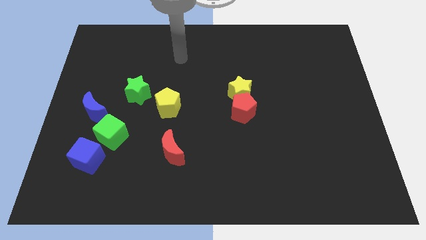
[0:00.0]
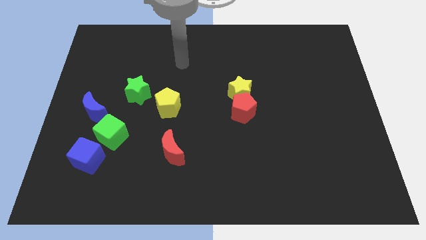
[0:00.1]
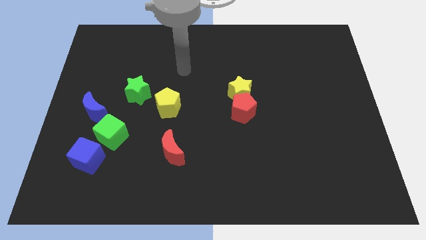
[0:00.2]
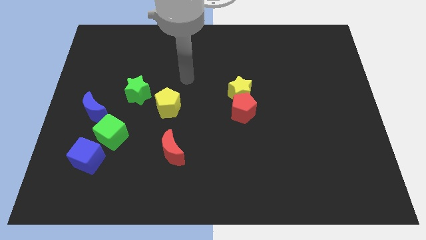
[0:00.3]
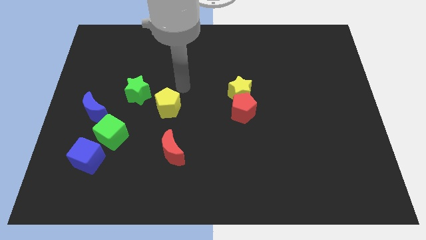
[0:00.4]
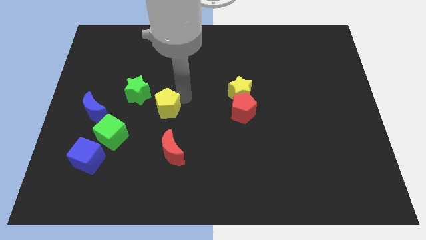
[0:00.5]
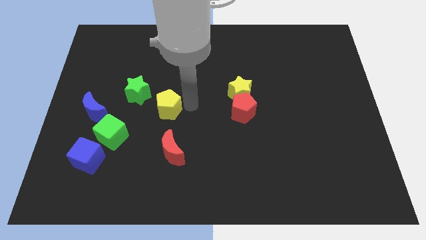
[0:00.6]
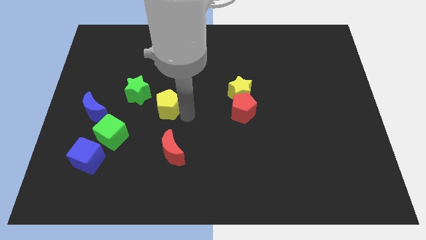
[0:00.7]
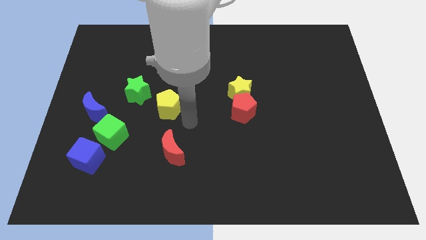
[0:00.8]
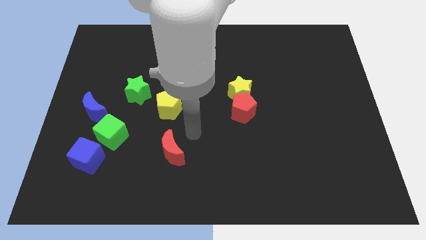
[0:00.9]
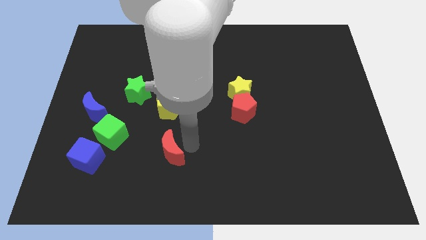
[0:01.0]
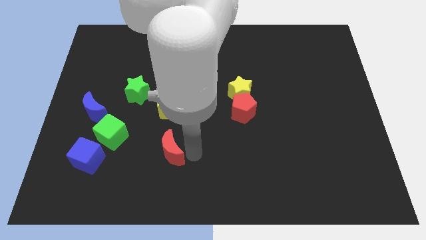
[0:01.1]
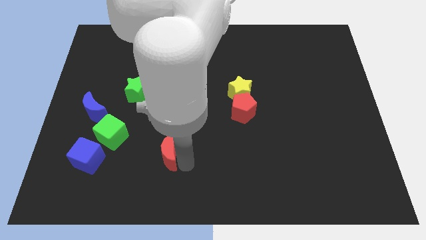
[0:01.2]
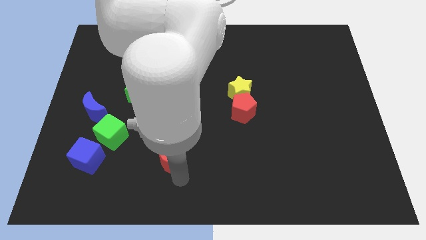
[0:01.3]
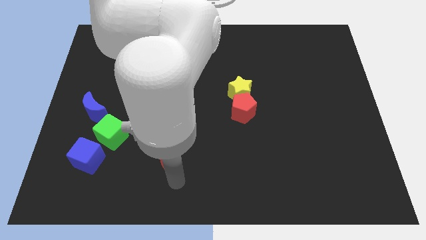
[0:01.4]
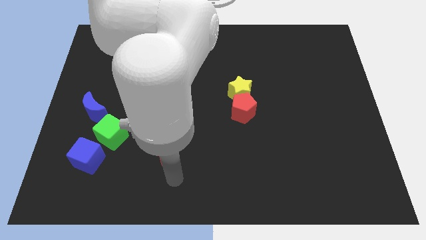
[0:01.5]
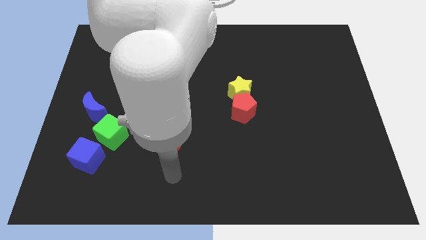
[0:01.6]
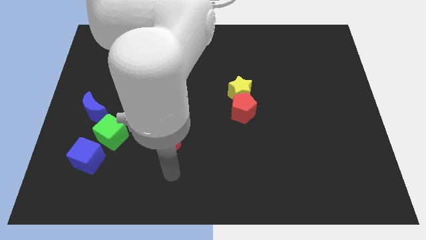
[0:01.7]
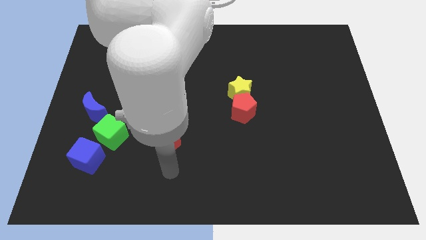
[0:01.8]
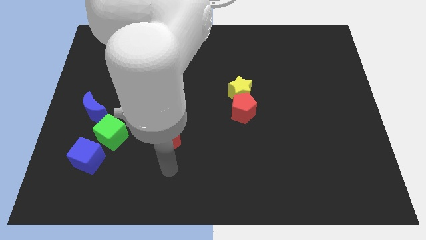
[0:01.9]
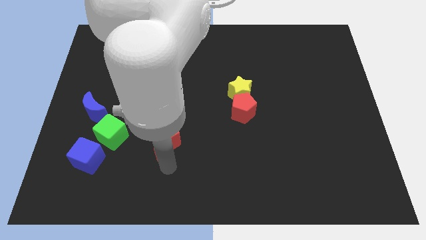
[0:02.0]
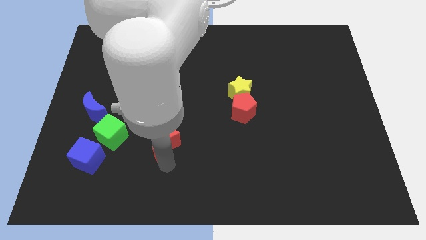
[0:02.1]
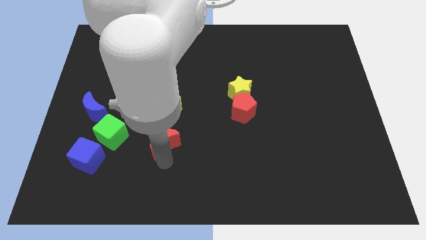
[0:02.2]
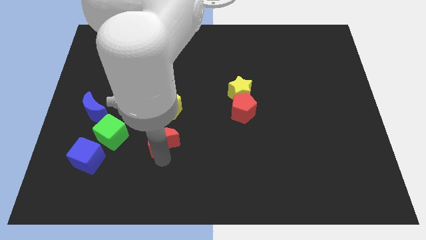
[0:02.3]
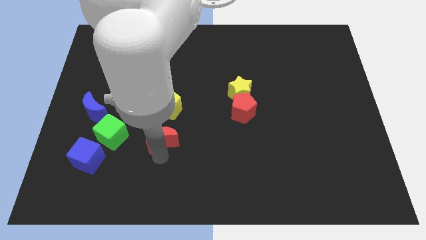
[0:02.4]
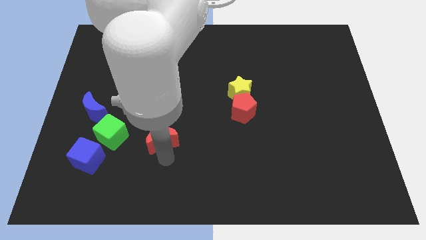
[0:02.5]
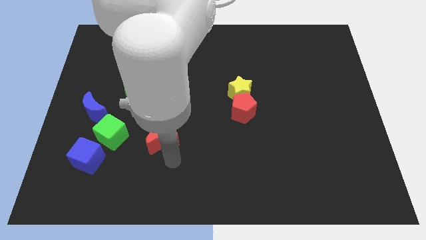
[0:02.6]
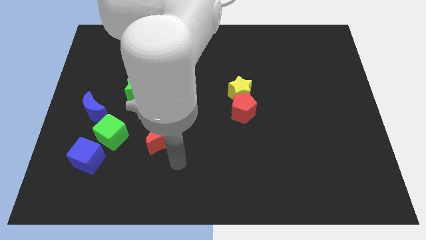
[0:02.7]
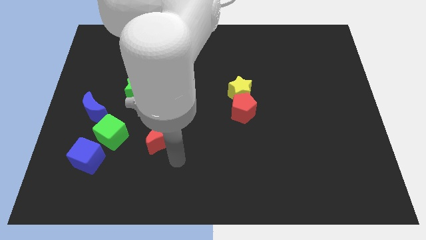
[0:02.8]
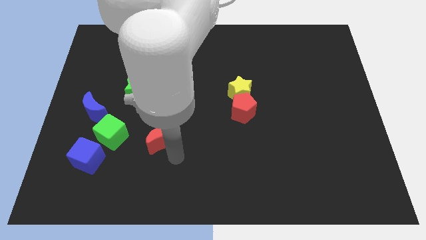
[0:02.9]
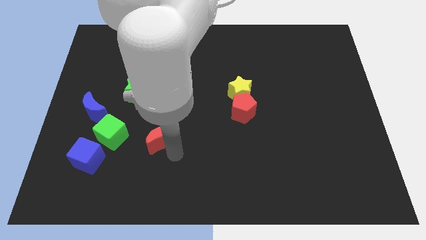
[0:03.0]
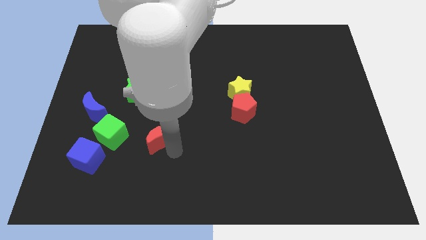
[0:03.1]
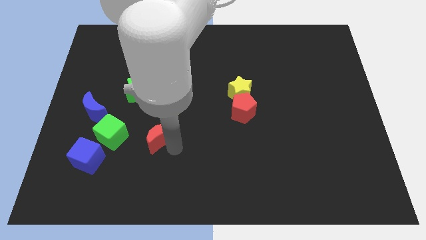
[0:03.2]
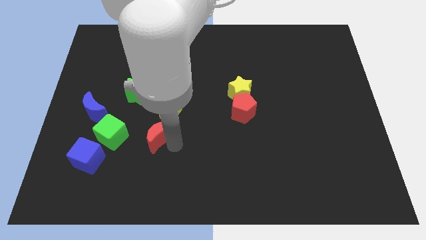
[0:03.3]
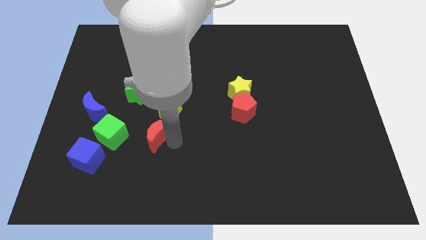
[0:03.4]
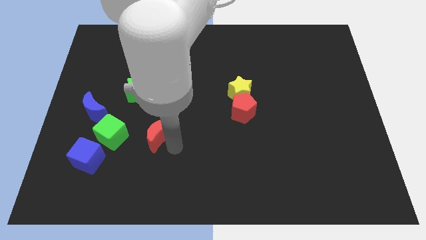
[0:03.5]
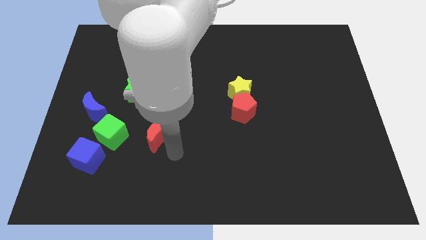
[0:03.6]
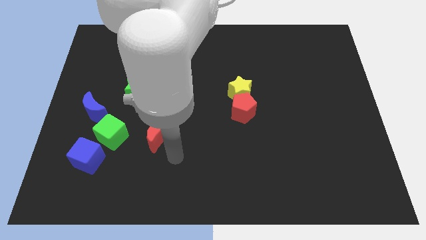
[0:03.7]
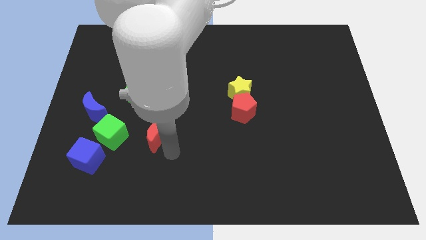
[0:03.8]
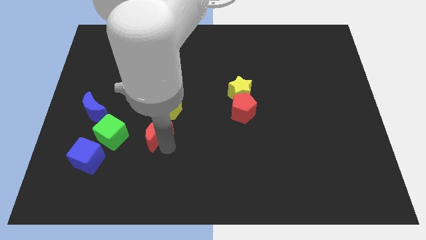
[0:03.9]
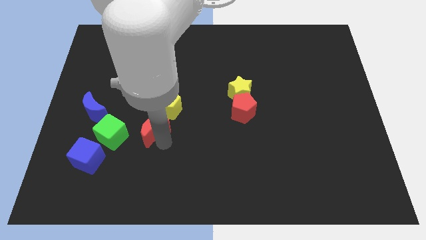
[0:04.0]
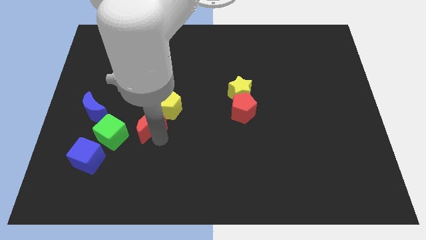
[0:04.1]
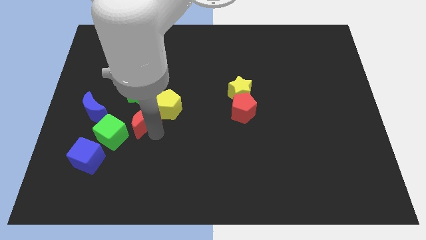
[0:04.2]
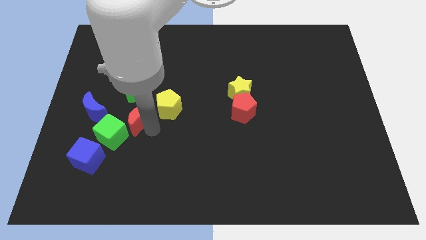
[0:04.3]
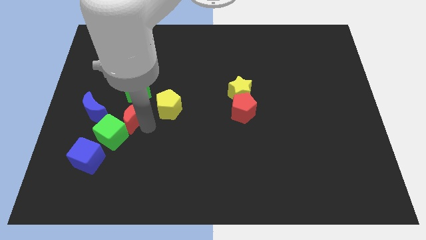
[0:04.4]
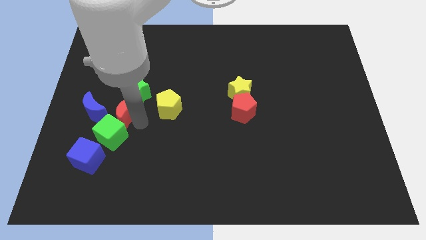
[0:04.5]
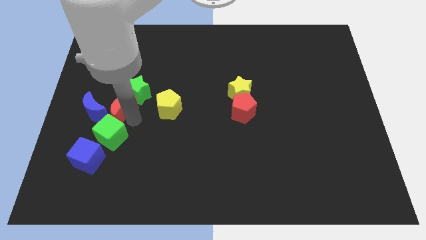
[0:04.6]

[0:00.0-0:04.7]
move the red moon to the top right side of the blue moon

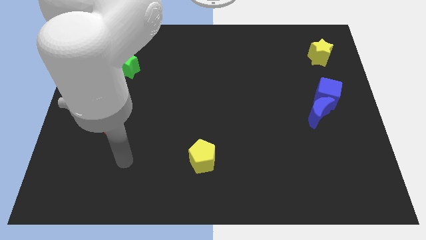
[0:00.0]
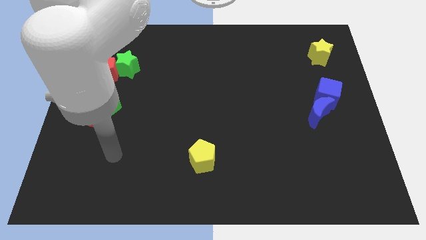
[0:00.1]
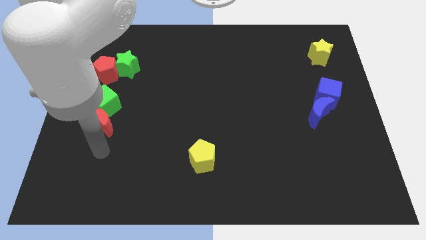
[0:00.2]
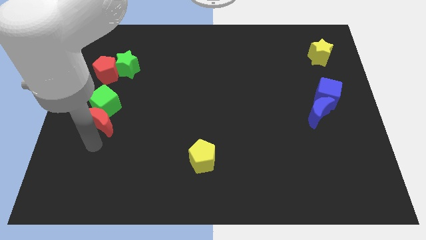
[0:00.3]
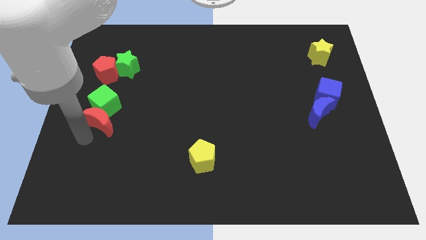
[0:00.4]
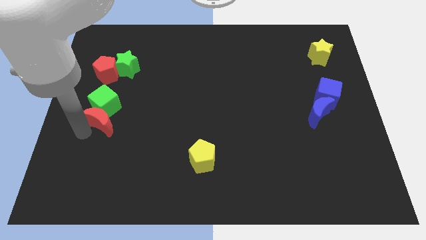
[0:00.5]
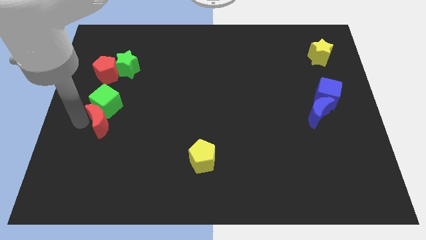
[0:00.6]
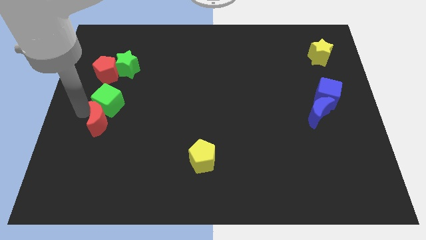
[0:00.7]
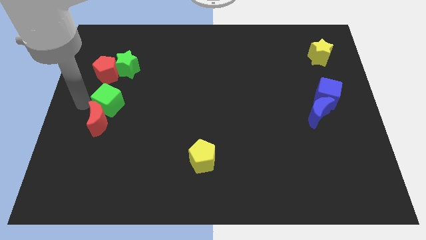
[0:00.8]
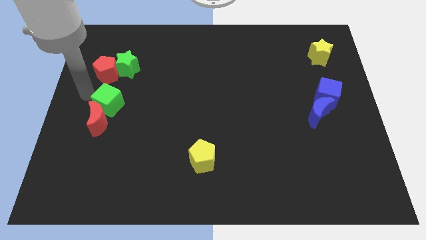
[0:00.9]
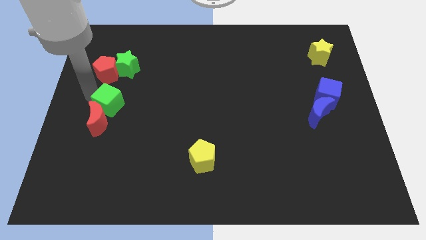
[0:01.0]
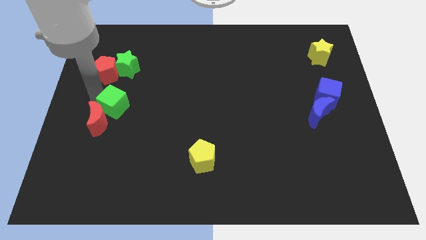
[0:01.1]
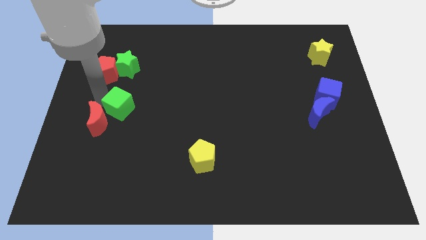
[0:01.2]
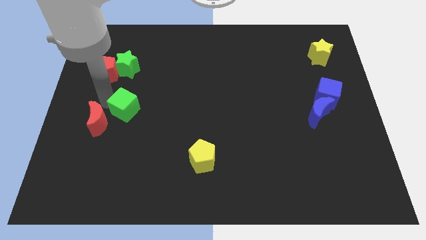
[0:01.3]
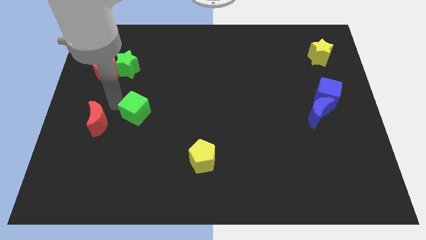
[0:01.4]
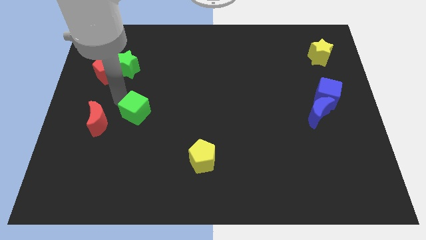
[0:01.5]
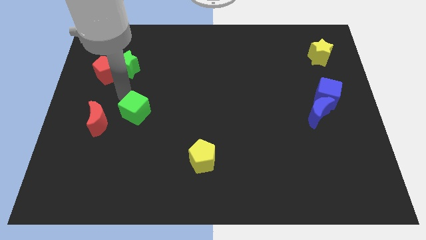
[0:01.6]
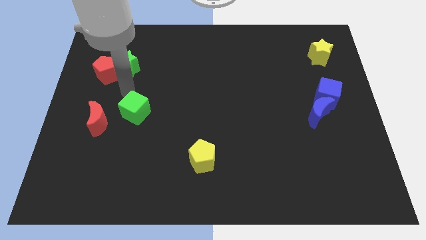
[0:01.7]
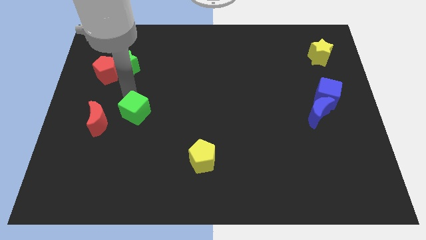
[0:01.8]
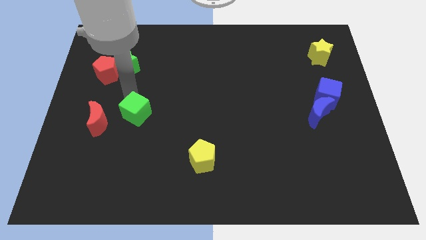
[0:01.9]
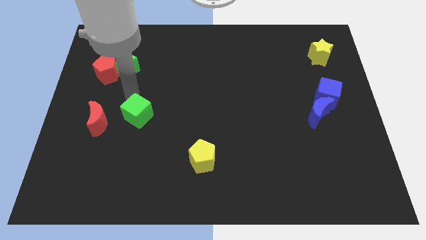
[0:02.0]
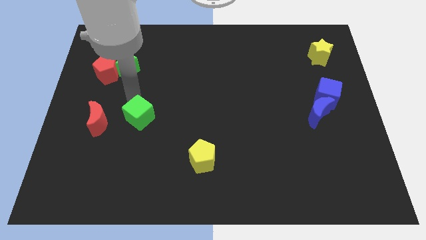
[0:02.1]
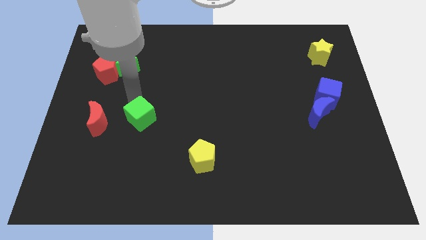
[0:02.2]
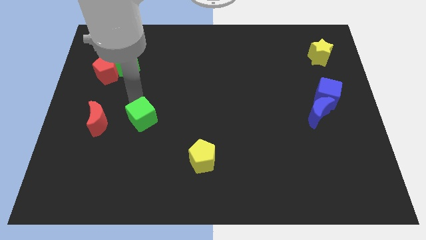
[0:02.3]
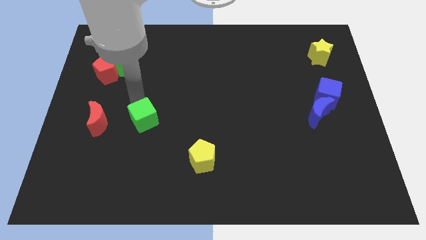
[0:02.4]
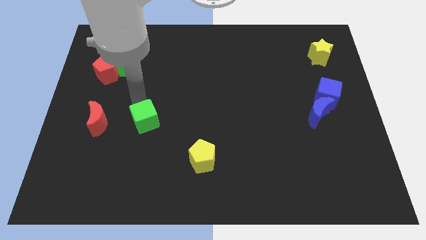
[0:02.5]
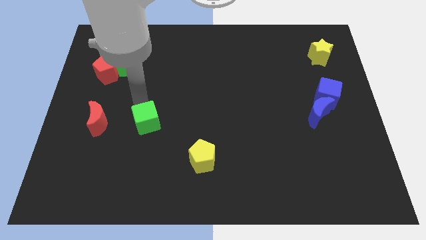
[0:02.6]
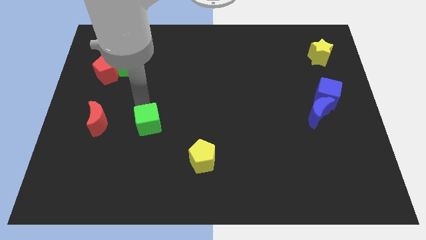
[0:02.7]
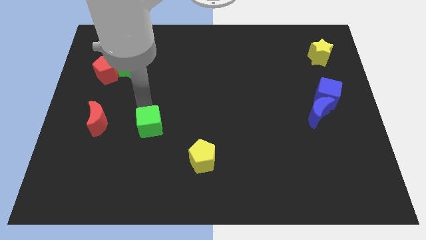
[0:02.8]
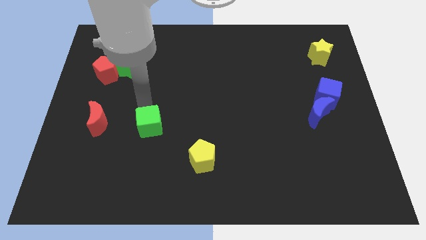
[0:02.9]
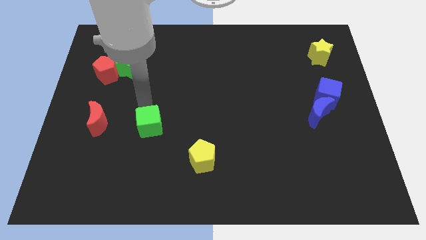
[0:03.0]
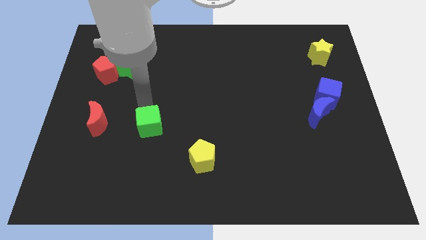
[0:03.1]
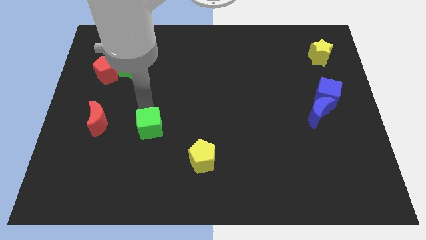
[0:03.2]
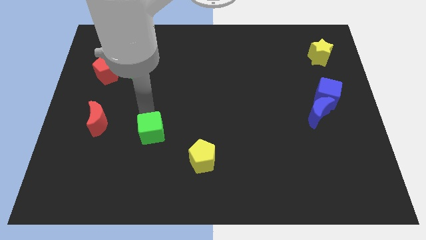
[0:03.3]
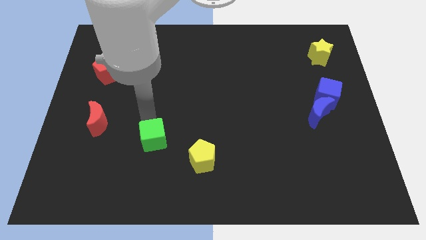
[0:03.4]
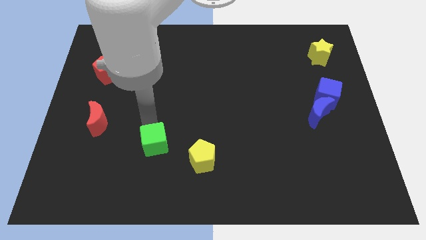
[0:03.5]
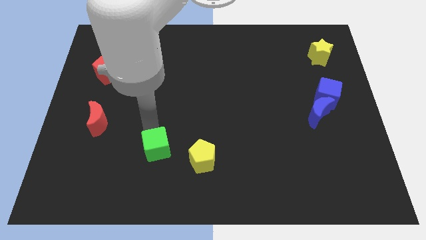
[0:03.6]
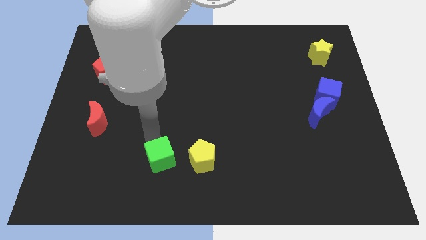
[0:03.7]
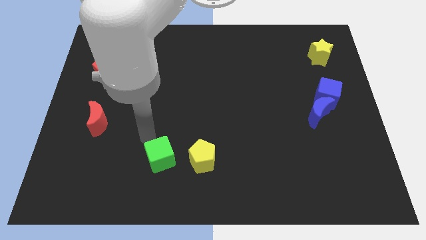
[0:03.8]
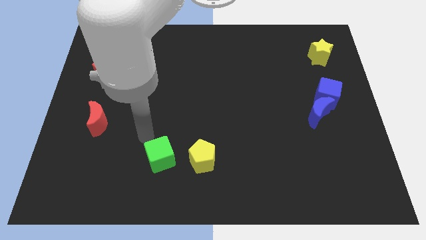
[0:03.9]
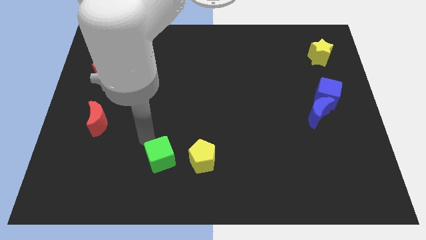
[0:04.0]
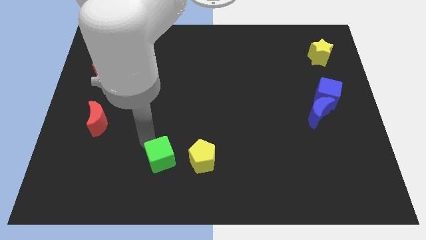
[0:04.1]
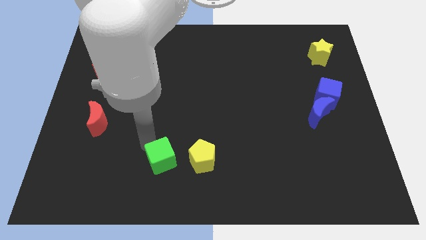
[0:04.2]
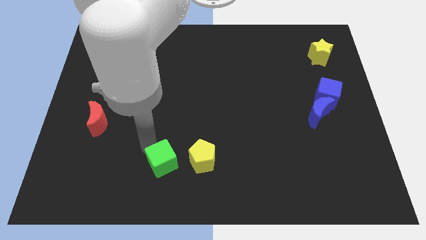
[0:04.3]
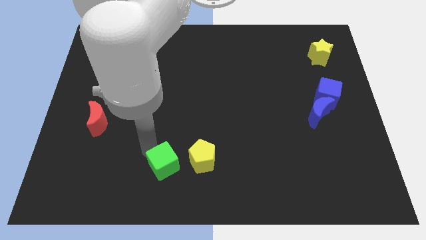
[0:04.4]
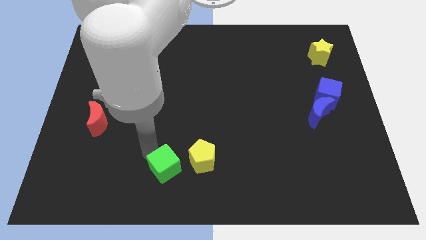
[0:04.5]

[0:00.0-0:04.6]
put the green cube to the bottom left of the yellow pentagon
